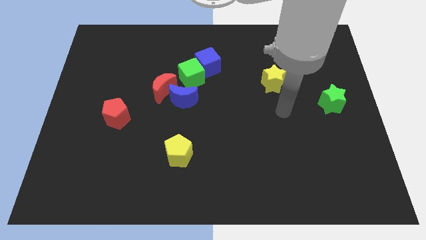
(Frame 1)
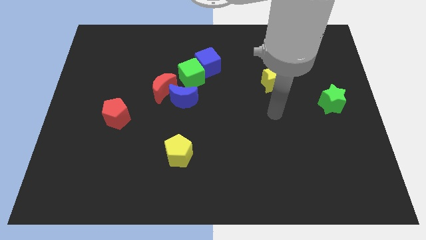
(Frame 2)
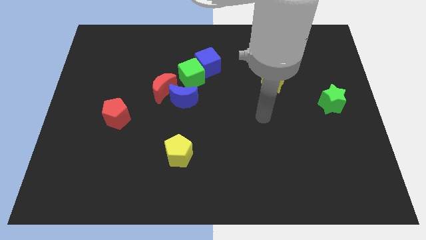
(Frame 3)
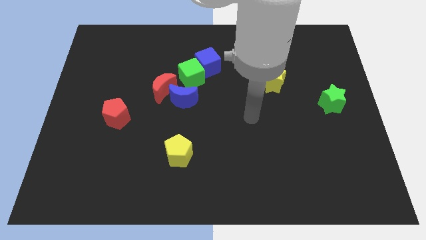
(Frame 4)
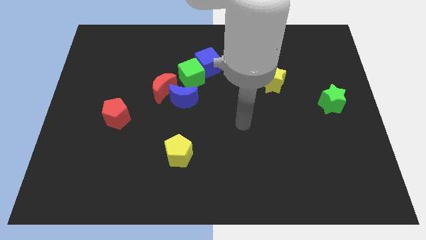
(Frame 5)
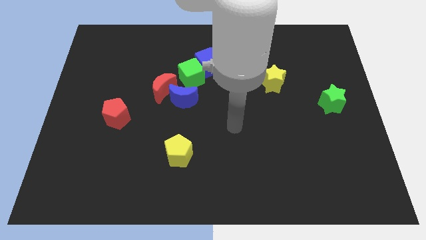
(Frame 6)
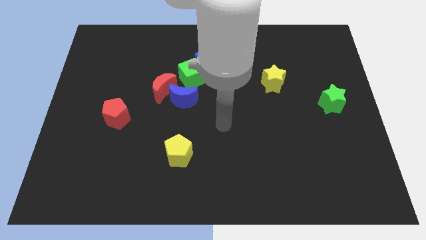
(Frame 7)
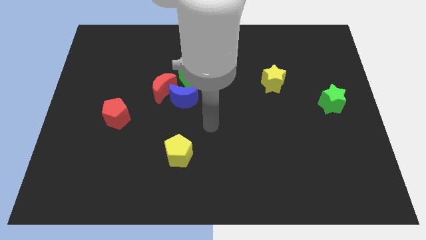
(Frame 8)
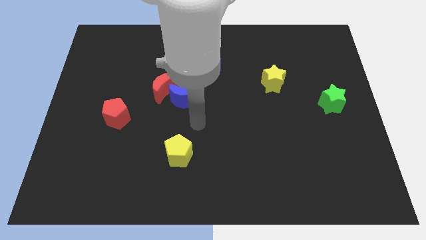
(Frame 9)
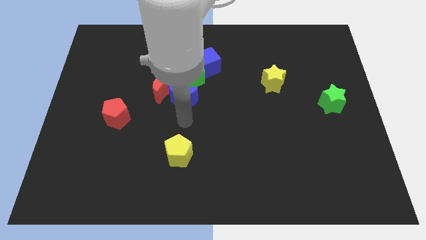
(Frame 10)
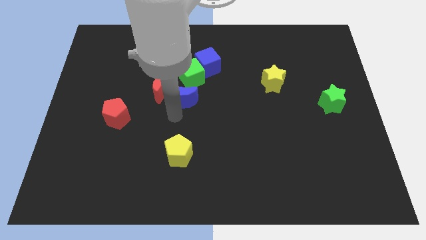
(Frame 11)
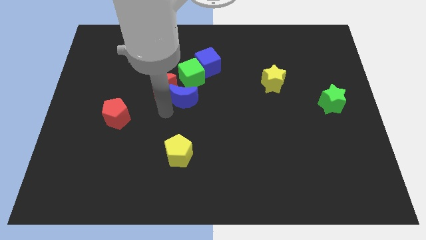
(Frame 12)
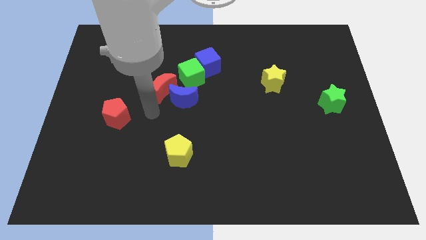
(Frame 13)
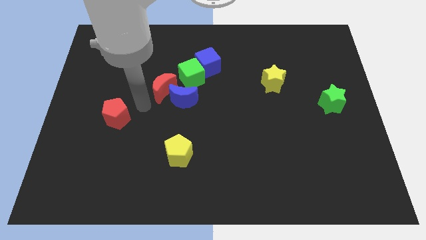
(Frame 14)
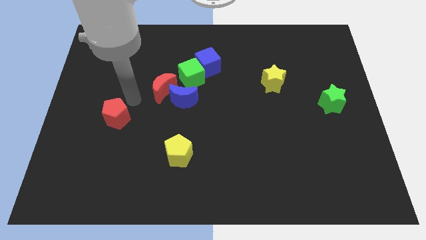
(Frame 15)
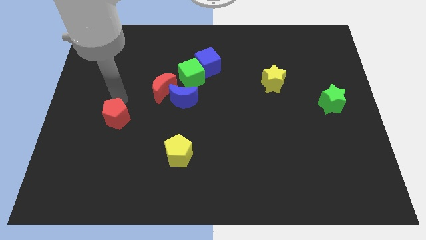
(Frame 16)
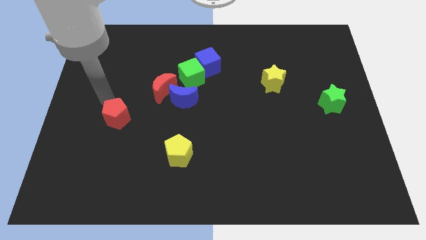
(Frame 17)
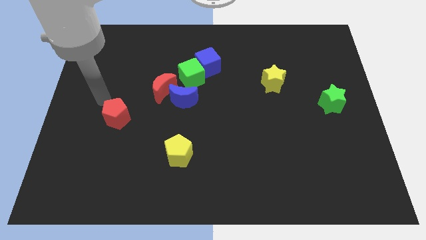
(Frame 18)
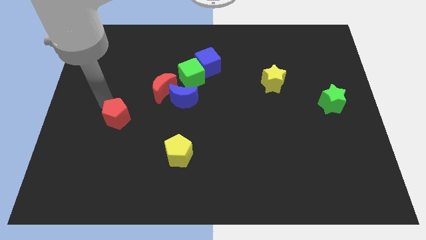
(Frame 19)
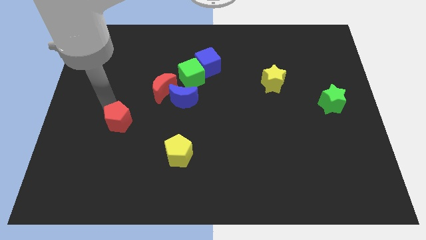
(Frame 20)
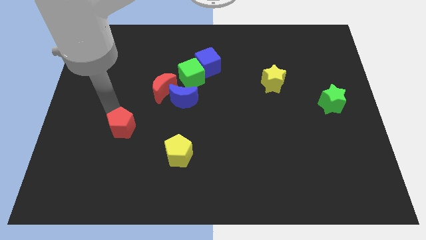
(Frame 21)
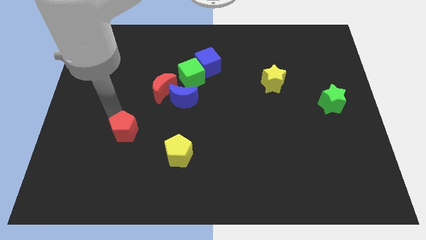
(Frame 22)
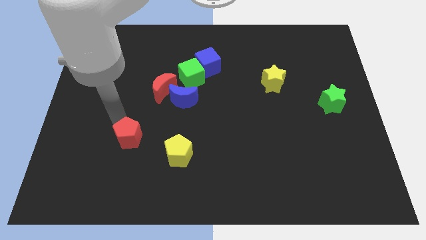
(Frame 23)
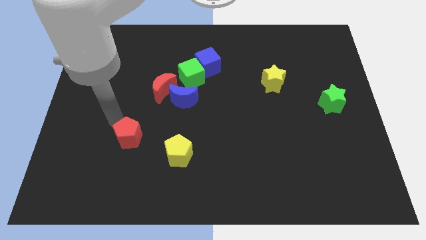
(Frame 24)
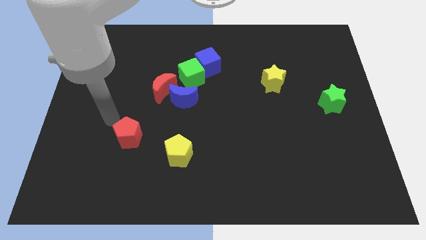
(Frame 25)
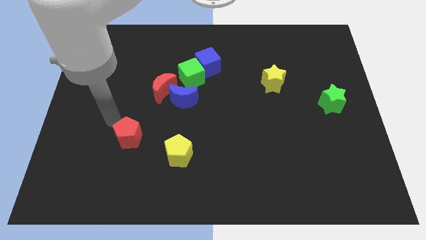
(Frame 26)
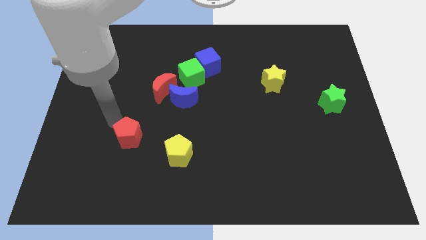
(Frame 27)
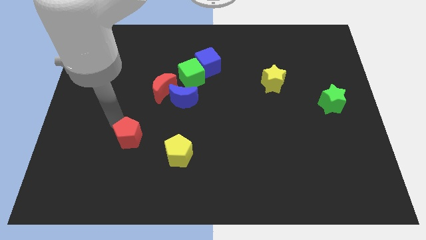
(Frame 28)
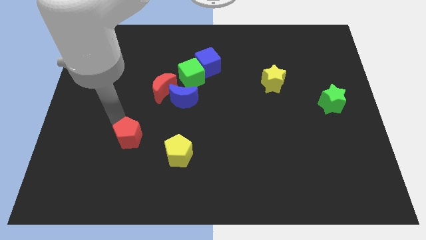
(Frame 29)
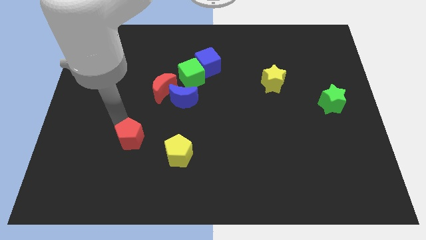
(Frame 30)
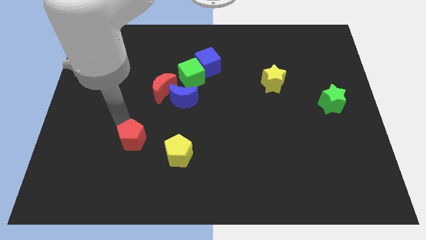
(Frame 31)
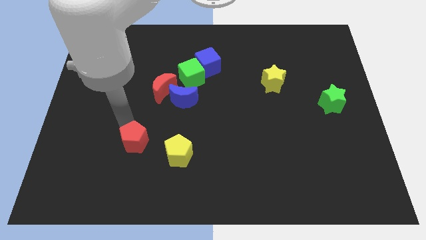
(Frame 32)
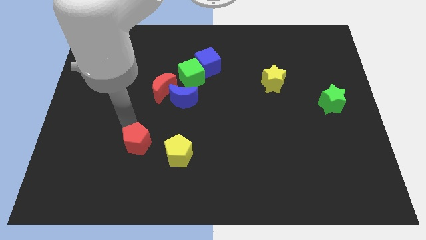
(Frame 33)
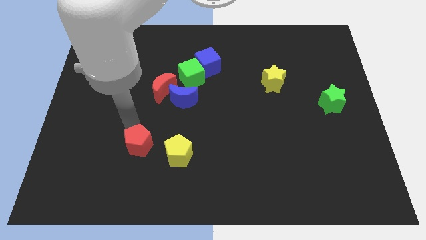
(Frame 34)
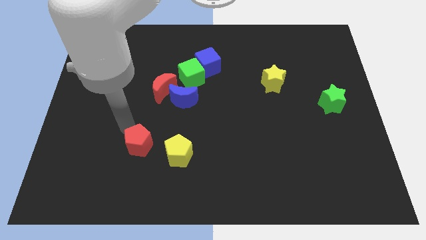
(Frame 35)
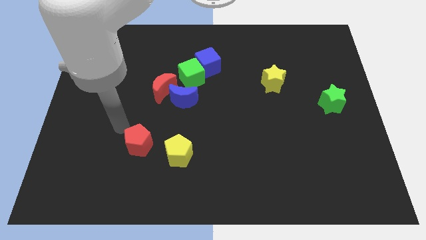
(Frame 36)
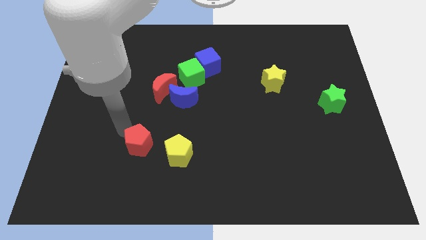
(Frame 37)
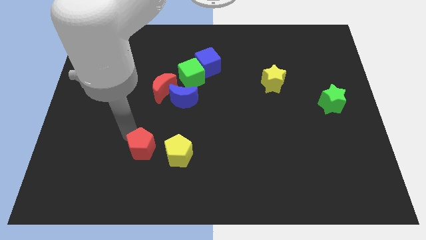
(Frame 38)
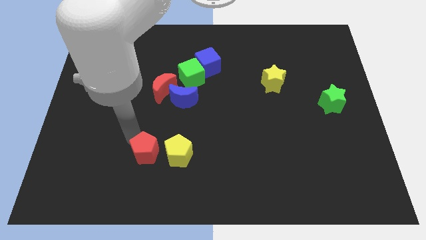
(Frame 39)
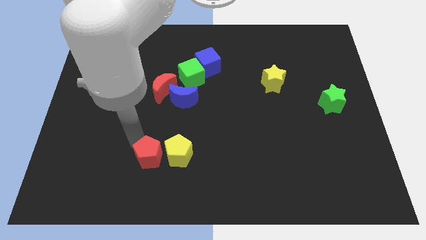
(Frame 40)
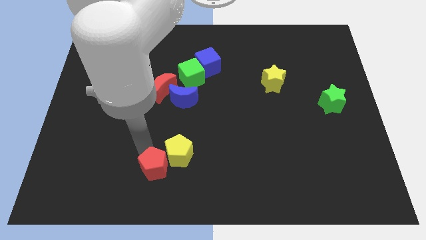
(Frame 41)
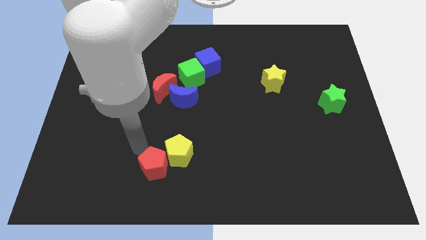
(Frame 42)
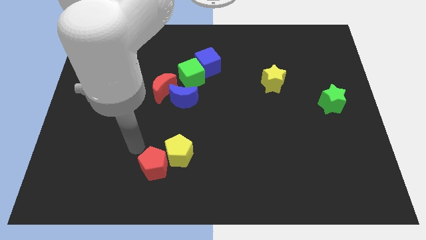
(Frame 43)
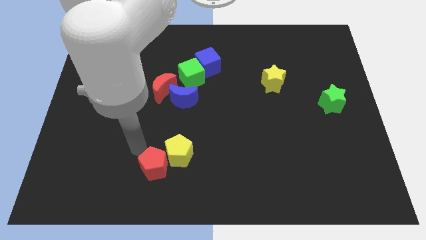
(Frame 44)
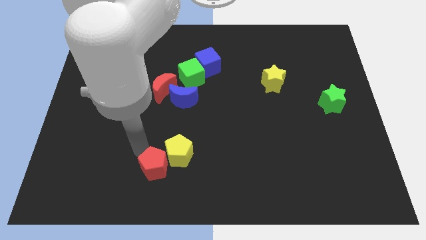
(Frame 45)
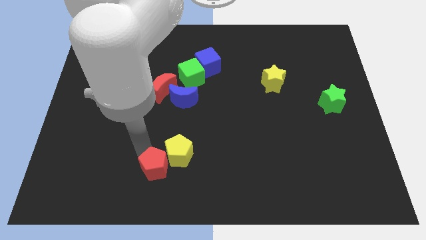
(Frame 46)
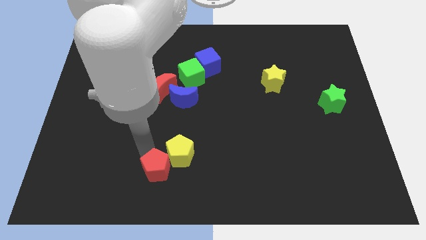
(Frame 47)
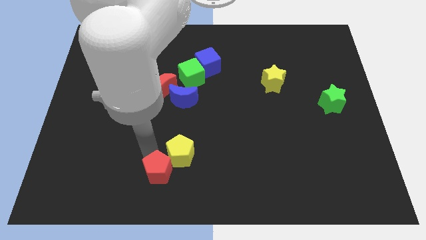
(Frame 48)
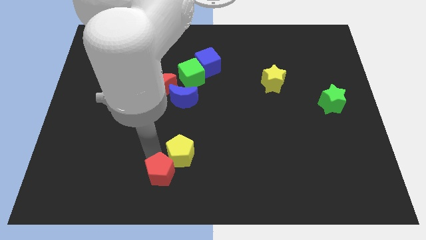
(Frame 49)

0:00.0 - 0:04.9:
put the red pentagon to the bottom side

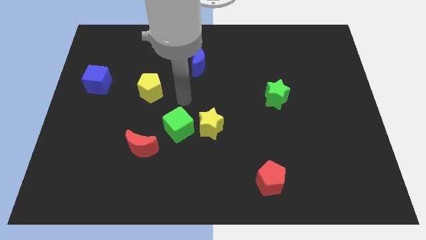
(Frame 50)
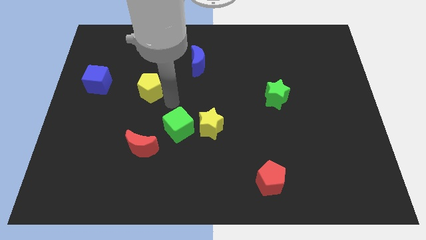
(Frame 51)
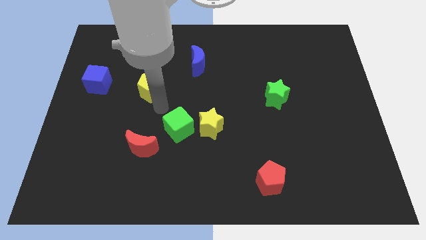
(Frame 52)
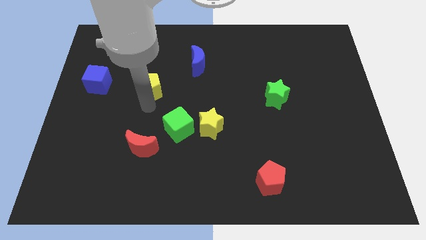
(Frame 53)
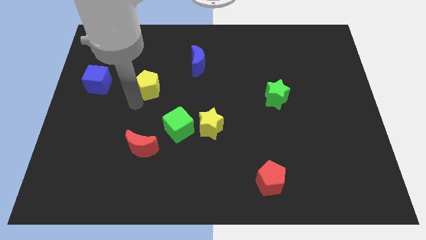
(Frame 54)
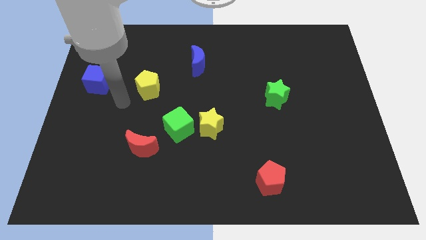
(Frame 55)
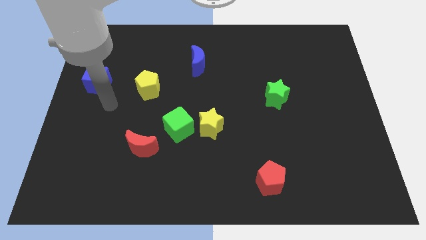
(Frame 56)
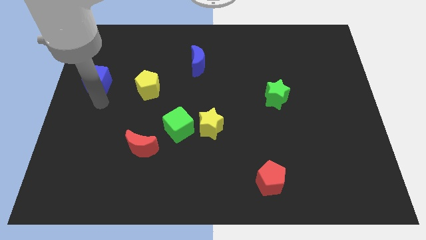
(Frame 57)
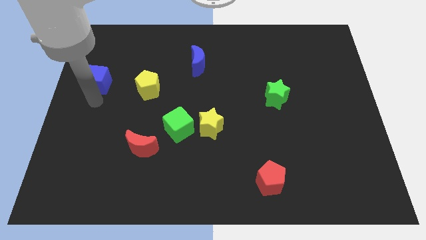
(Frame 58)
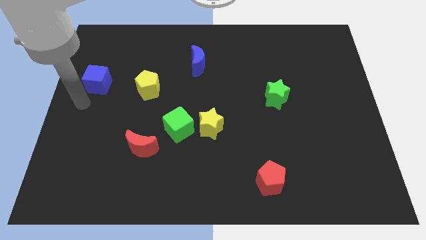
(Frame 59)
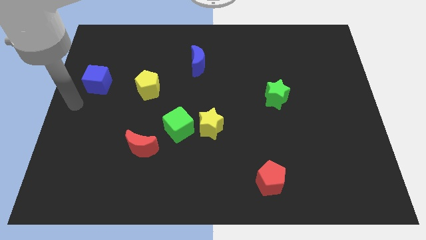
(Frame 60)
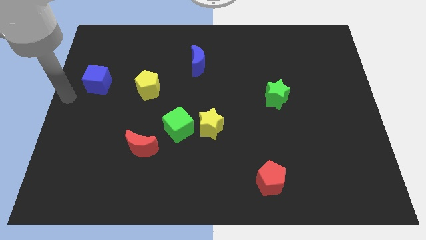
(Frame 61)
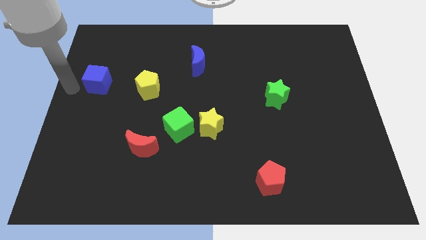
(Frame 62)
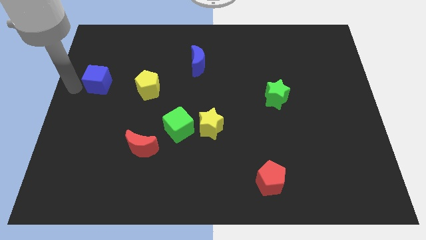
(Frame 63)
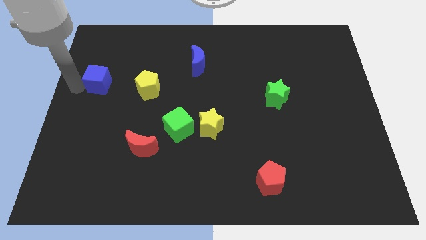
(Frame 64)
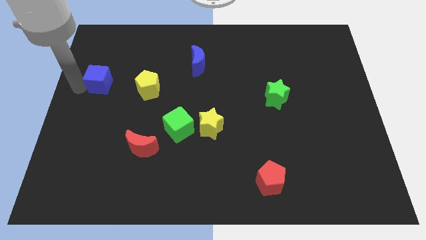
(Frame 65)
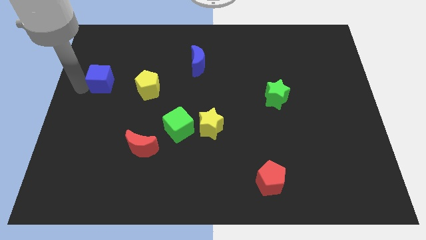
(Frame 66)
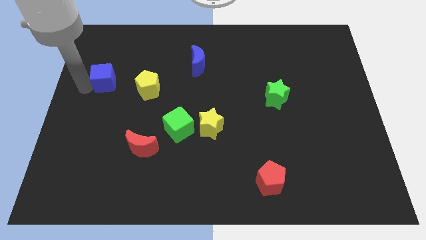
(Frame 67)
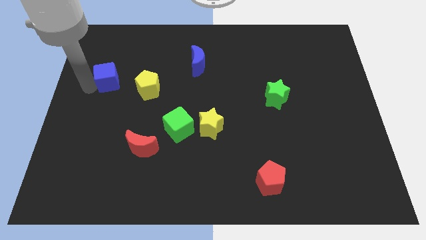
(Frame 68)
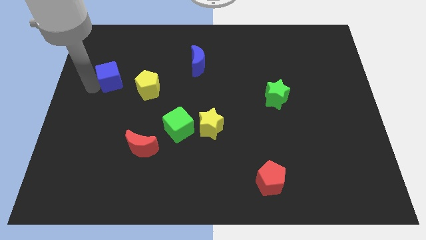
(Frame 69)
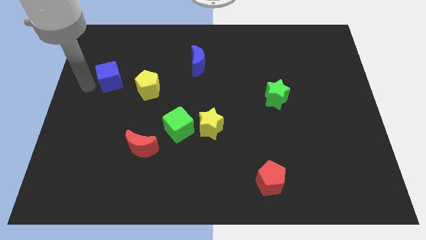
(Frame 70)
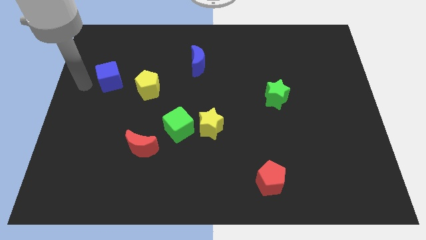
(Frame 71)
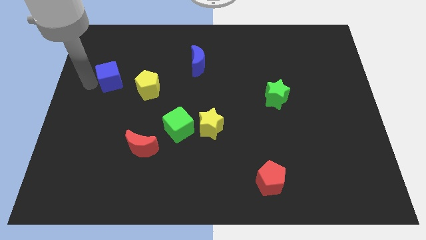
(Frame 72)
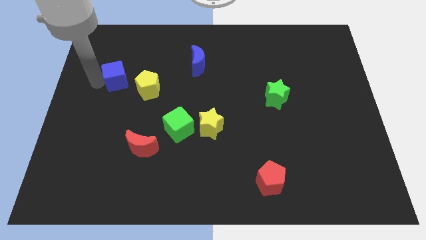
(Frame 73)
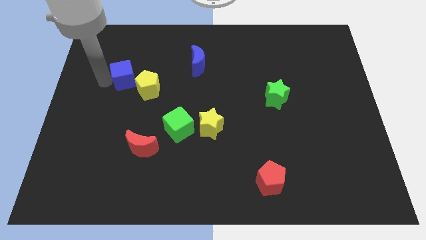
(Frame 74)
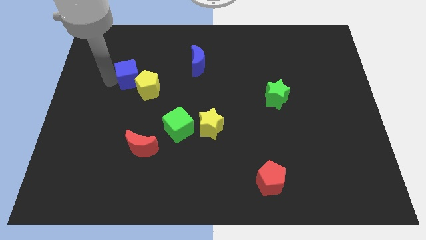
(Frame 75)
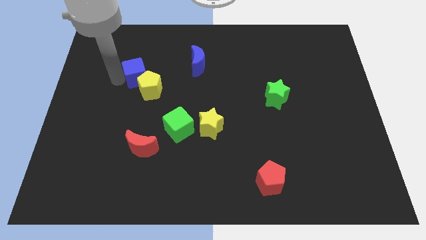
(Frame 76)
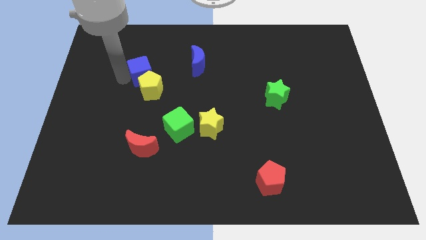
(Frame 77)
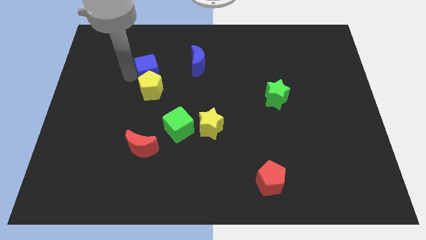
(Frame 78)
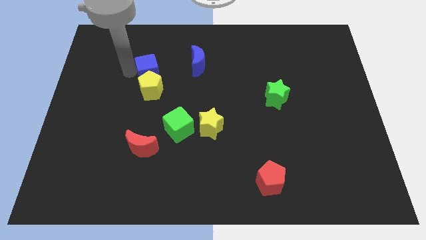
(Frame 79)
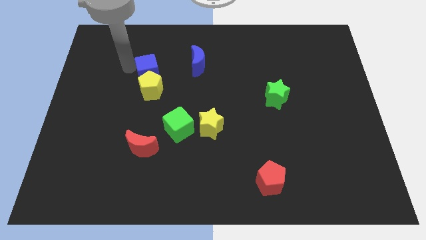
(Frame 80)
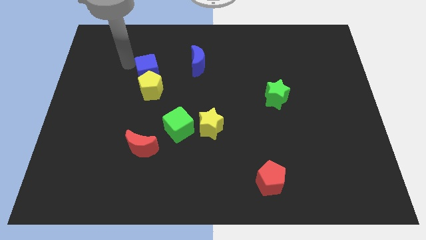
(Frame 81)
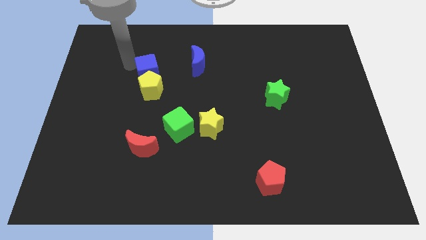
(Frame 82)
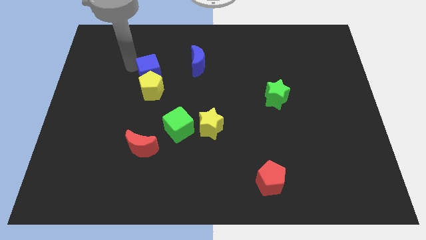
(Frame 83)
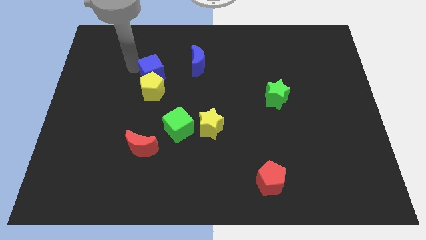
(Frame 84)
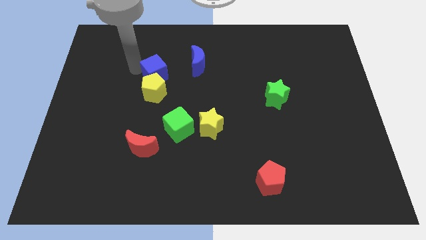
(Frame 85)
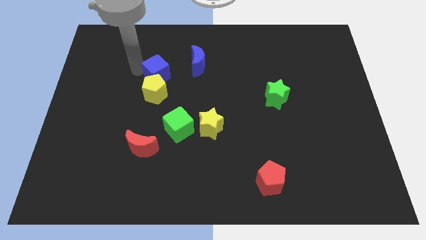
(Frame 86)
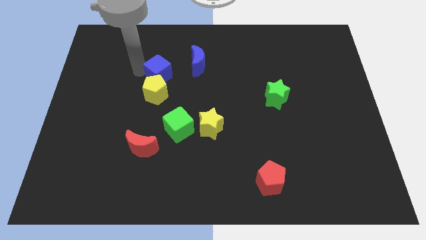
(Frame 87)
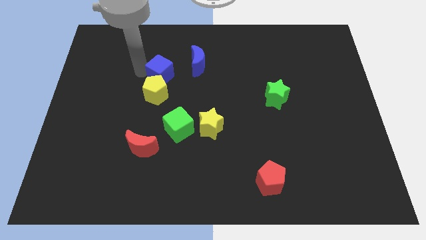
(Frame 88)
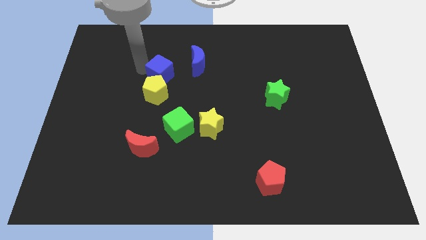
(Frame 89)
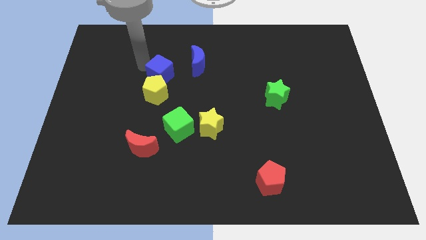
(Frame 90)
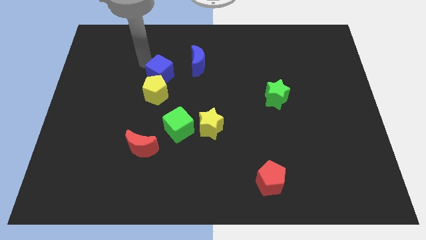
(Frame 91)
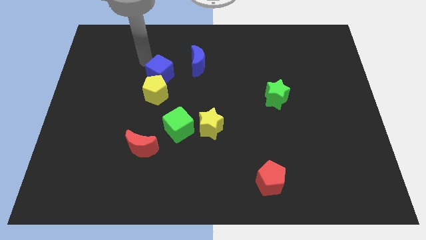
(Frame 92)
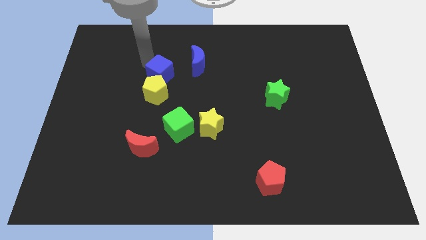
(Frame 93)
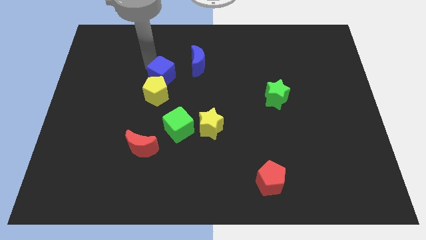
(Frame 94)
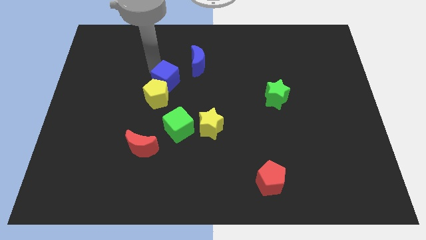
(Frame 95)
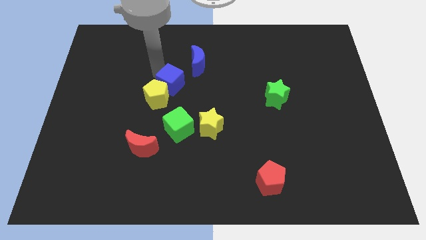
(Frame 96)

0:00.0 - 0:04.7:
push the blue cube to the center
